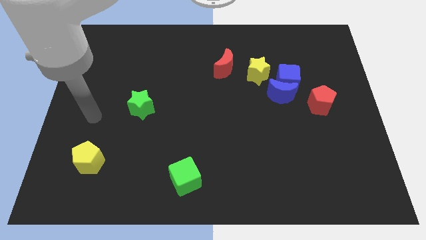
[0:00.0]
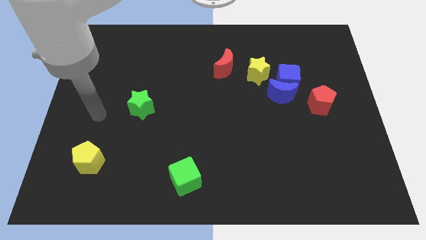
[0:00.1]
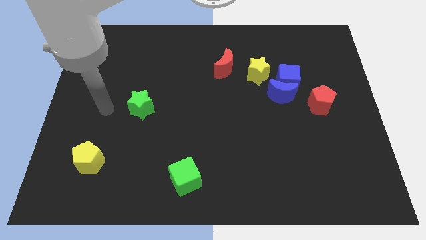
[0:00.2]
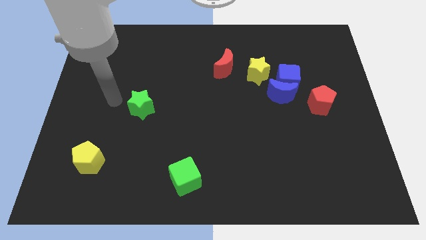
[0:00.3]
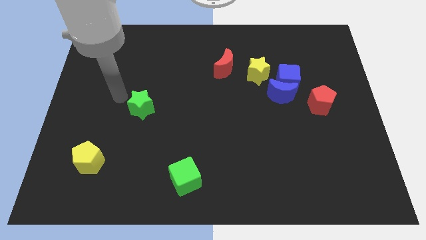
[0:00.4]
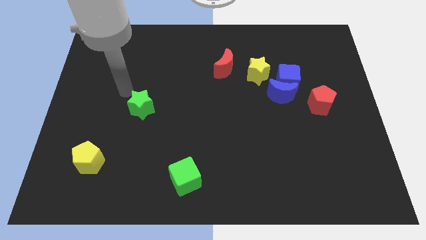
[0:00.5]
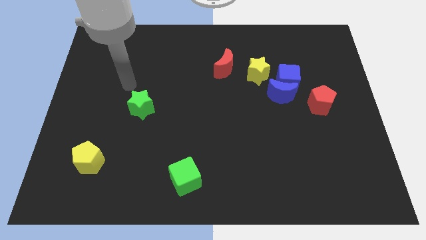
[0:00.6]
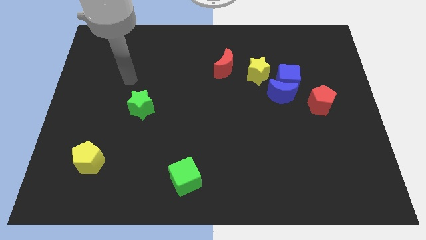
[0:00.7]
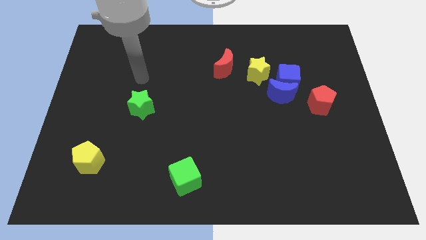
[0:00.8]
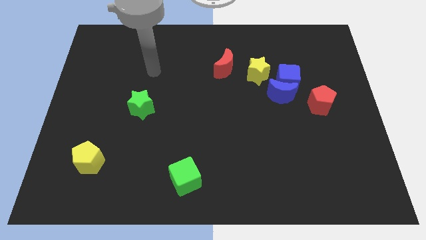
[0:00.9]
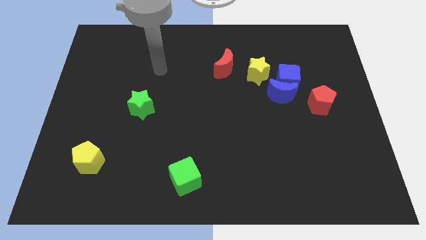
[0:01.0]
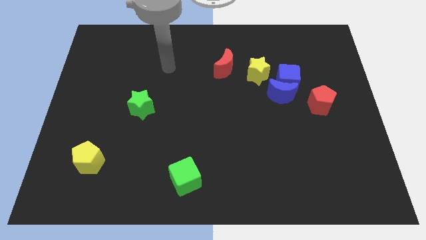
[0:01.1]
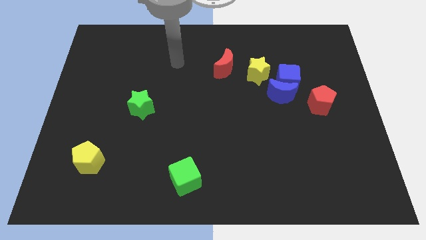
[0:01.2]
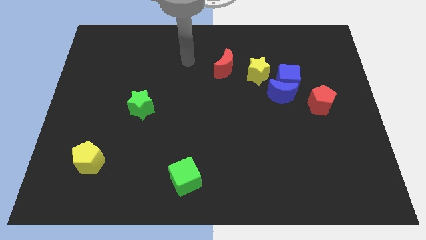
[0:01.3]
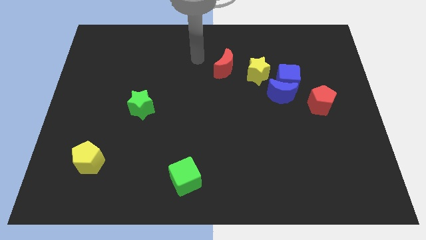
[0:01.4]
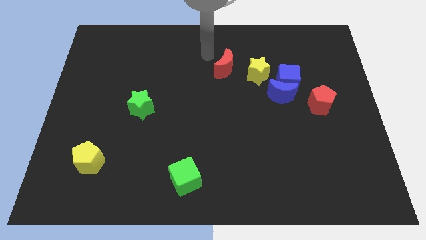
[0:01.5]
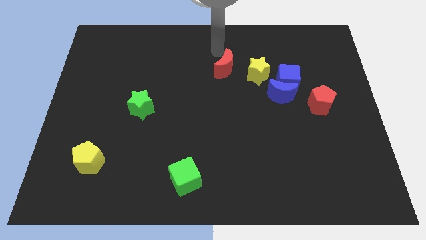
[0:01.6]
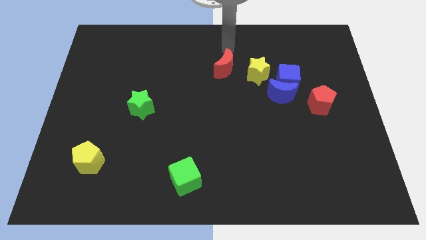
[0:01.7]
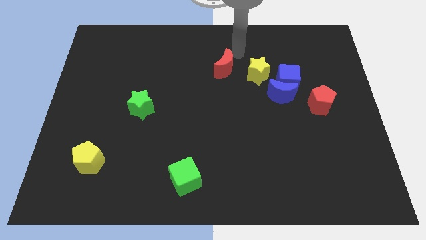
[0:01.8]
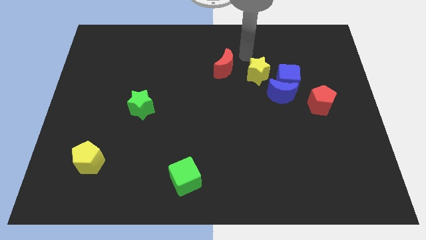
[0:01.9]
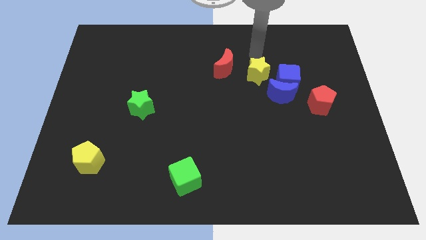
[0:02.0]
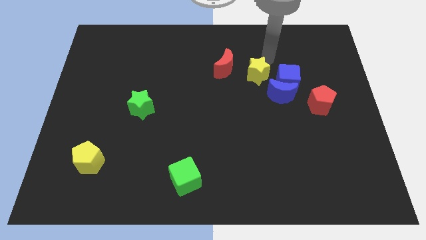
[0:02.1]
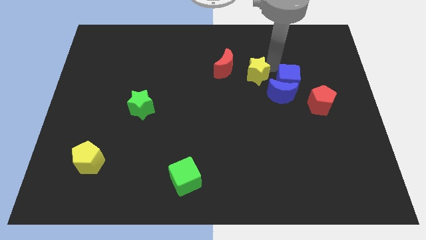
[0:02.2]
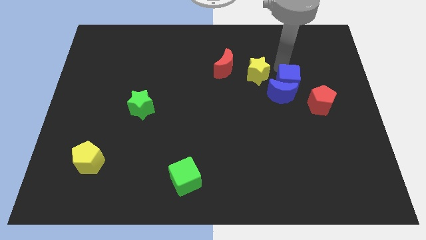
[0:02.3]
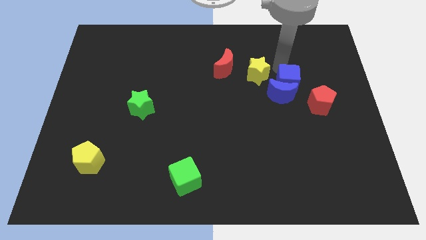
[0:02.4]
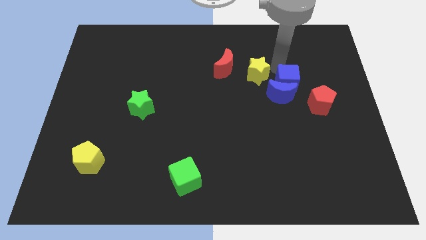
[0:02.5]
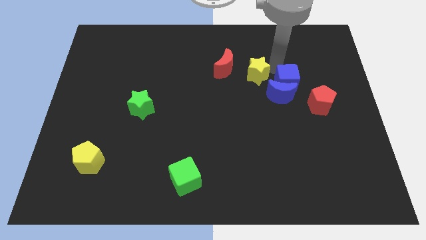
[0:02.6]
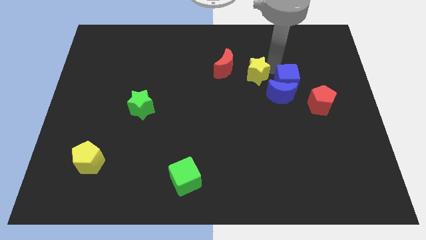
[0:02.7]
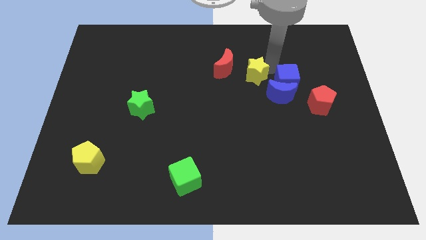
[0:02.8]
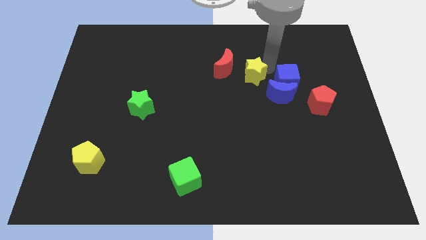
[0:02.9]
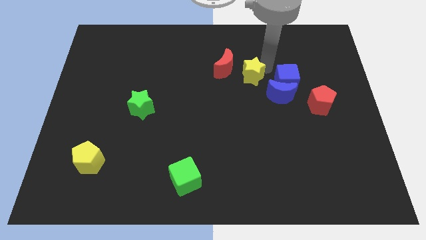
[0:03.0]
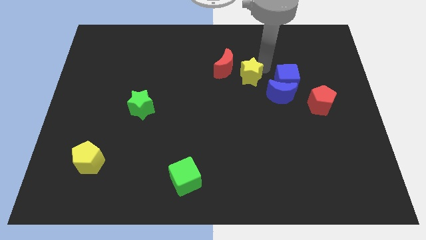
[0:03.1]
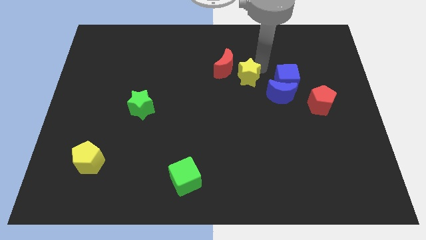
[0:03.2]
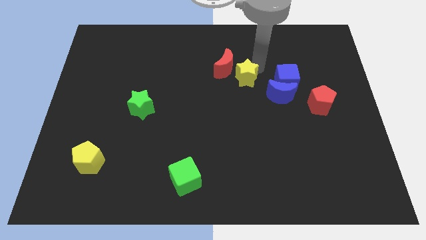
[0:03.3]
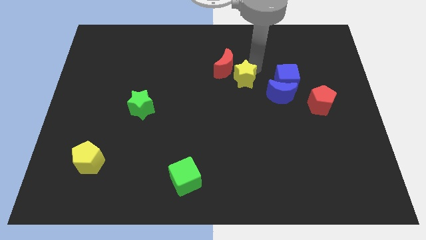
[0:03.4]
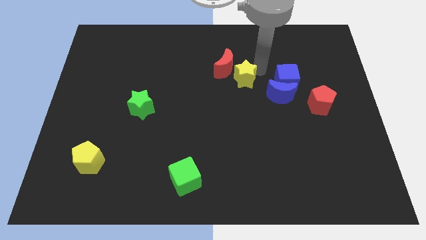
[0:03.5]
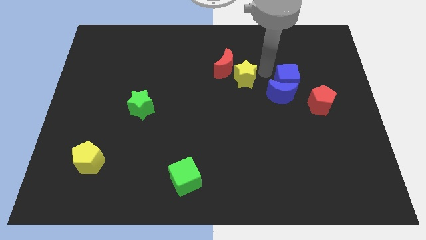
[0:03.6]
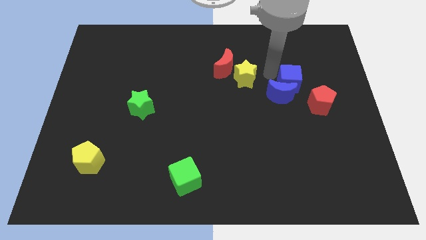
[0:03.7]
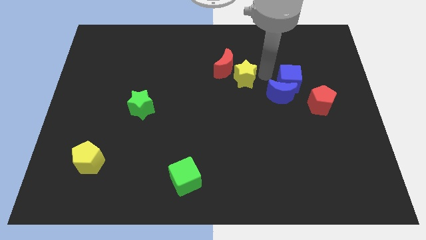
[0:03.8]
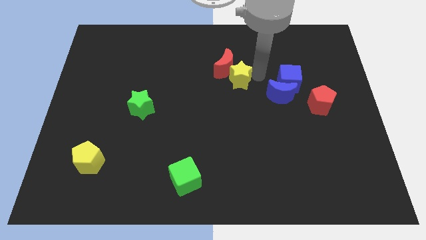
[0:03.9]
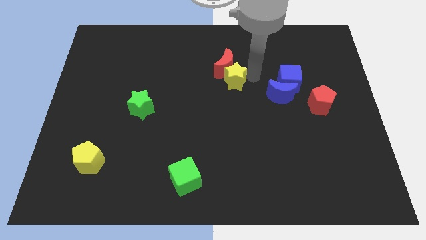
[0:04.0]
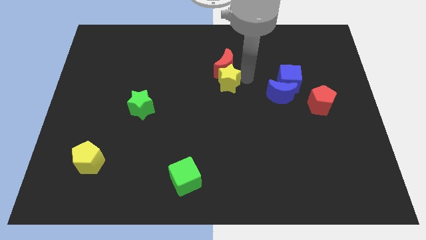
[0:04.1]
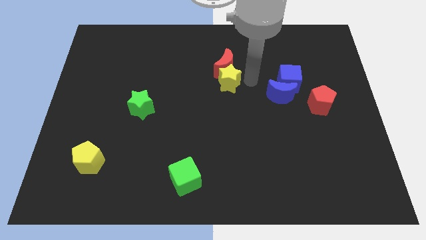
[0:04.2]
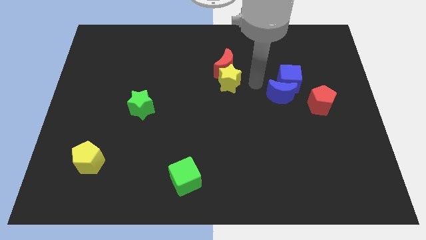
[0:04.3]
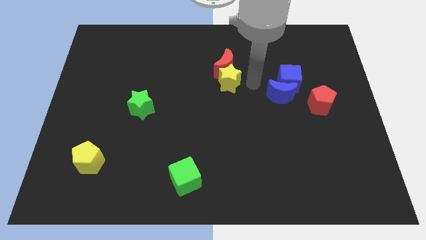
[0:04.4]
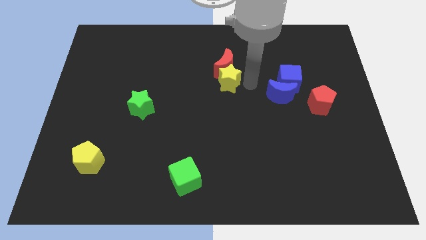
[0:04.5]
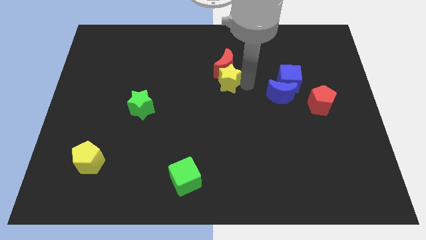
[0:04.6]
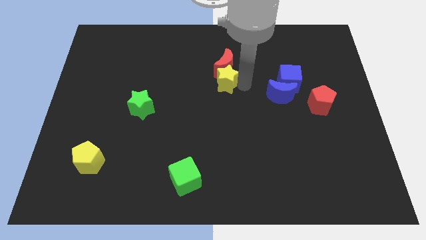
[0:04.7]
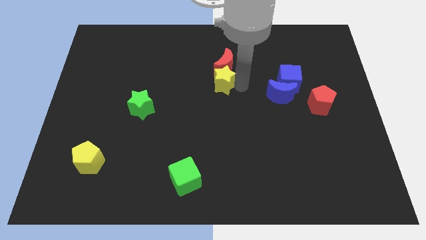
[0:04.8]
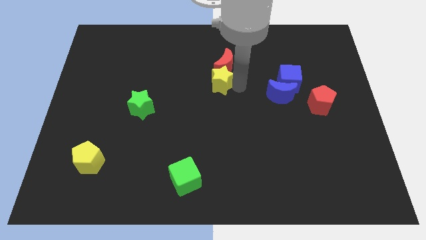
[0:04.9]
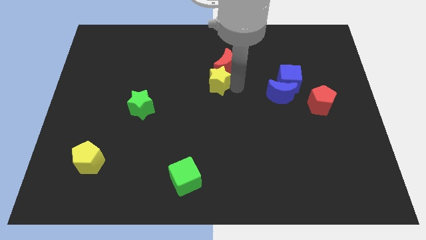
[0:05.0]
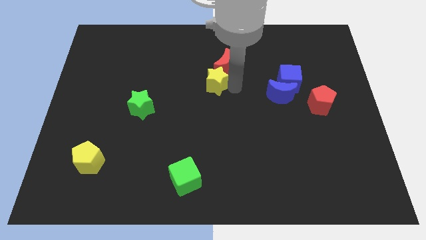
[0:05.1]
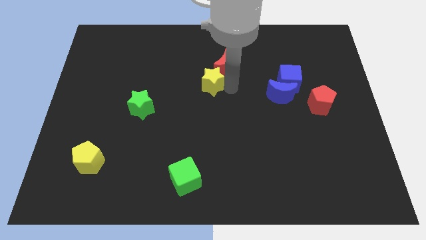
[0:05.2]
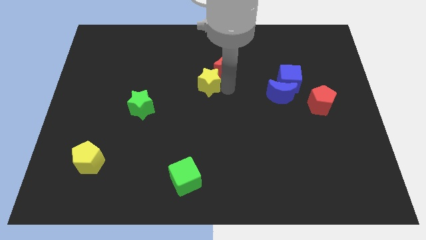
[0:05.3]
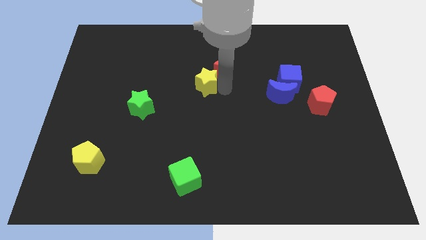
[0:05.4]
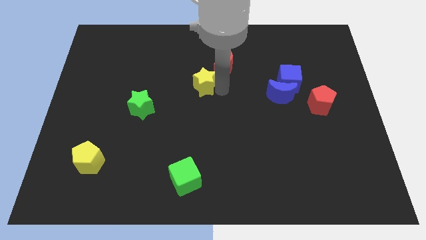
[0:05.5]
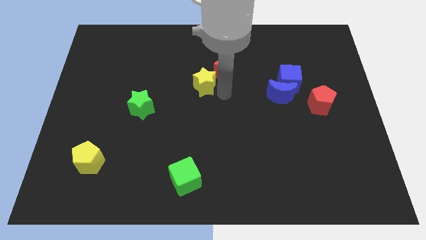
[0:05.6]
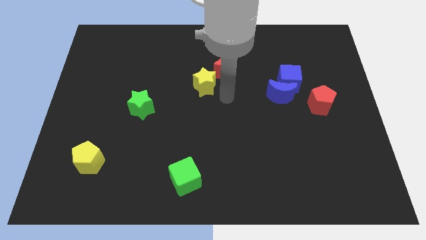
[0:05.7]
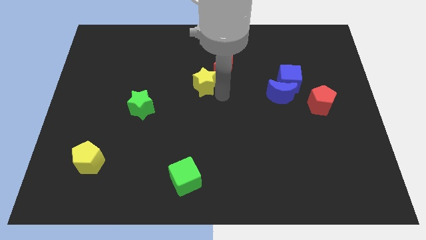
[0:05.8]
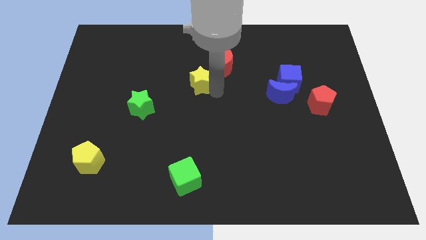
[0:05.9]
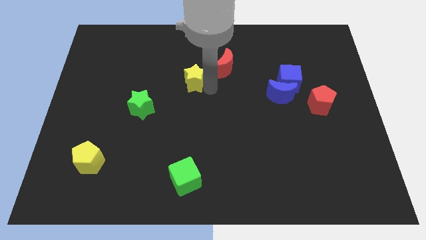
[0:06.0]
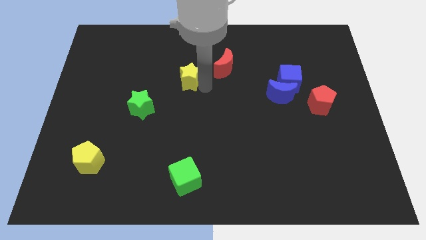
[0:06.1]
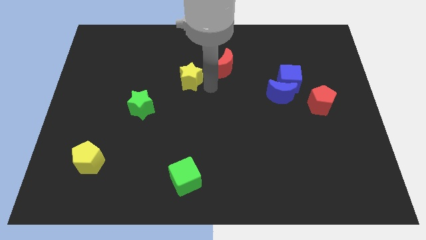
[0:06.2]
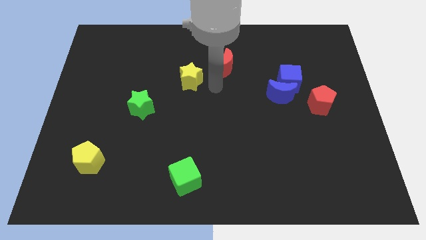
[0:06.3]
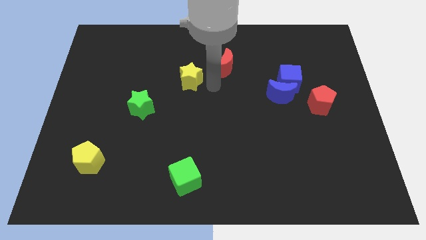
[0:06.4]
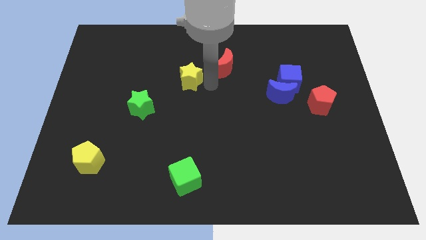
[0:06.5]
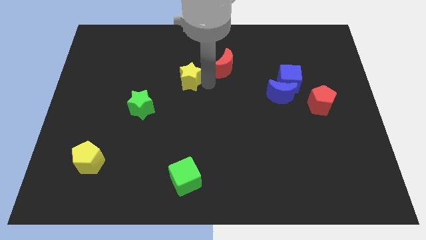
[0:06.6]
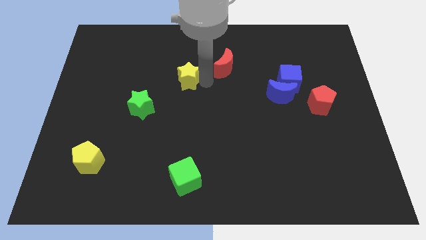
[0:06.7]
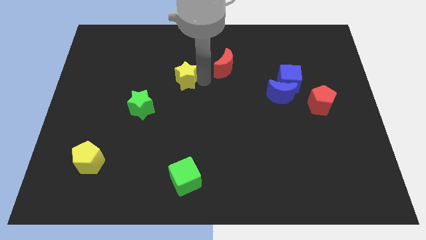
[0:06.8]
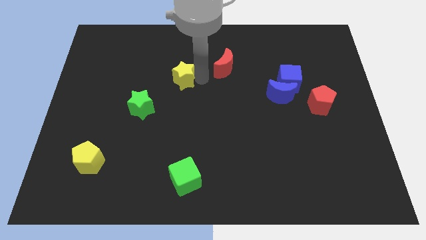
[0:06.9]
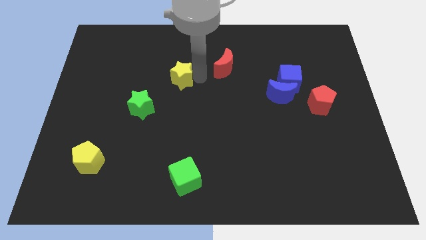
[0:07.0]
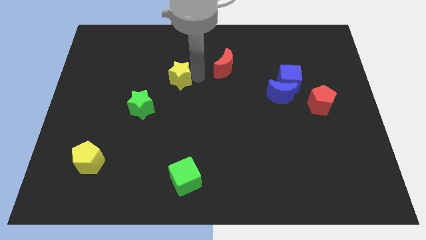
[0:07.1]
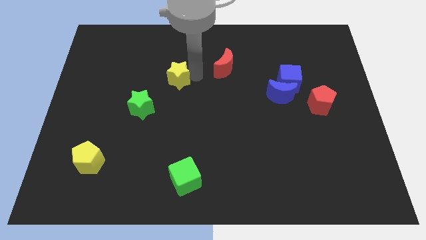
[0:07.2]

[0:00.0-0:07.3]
slide the yellow star left

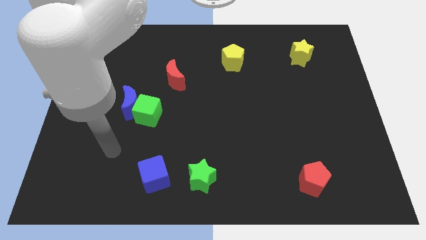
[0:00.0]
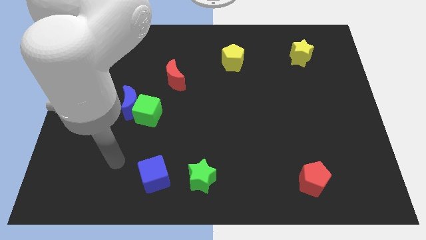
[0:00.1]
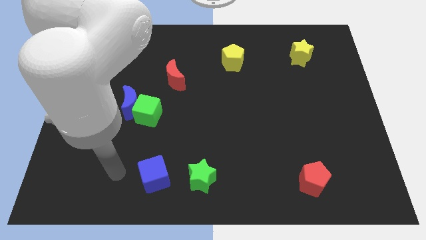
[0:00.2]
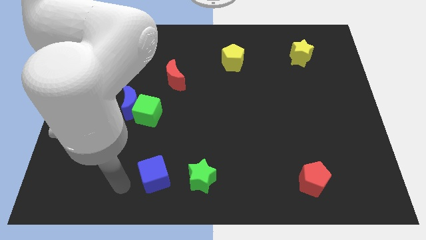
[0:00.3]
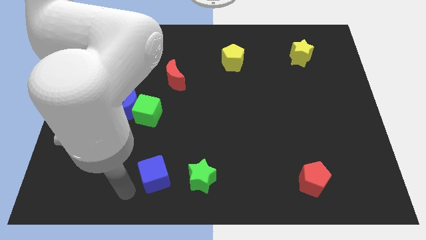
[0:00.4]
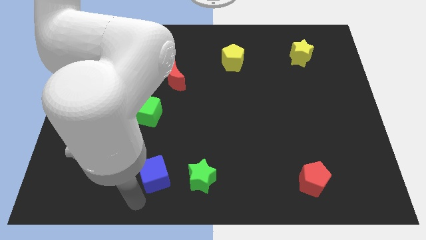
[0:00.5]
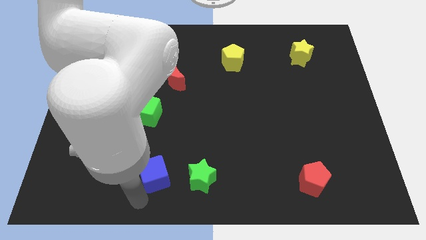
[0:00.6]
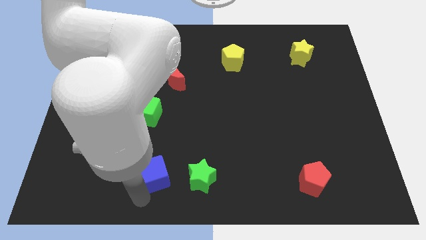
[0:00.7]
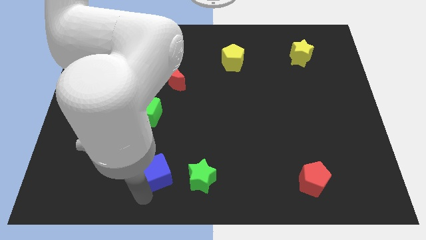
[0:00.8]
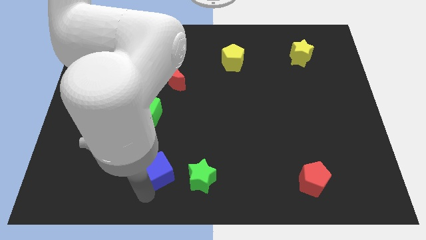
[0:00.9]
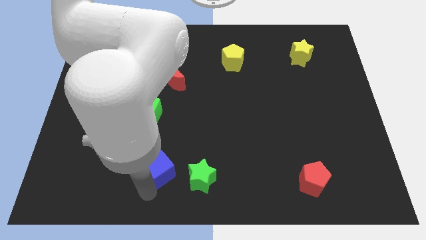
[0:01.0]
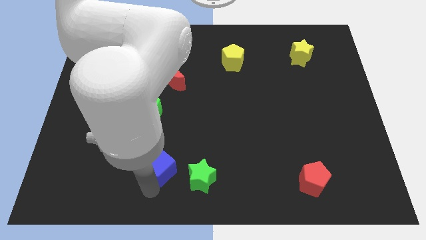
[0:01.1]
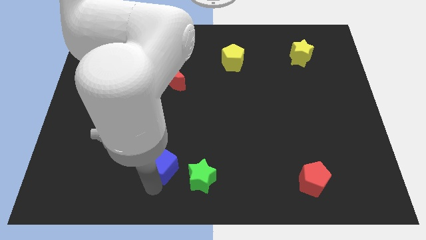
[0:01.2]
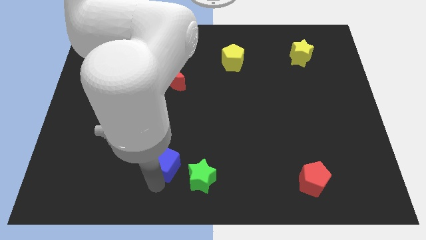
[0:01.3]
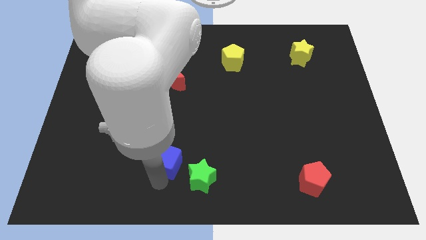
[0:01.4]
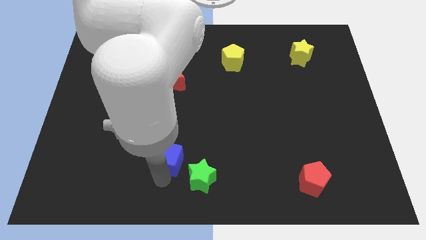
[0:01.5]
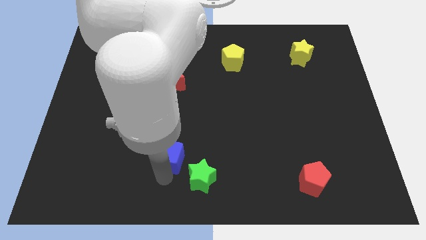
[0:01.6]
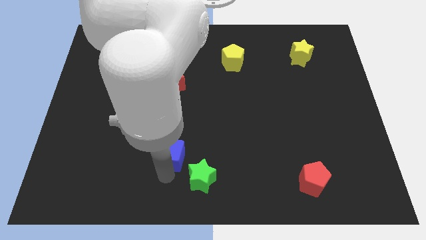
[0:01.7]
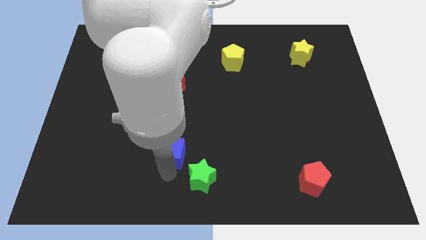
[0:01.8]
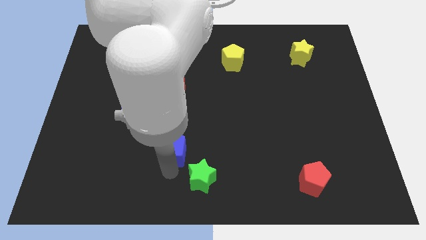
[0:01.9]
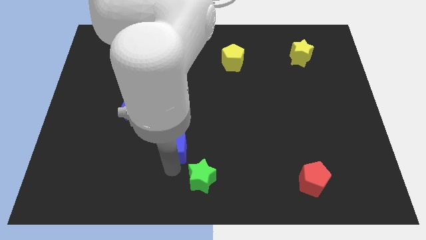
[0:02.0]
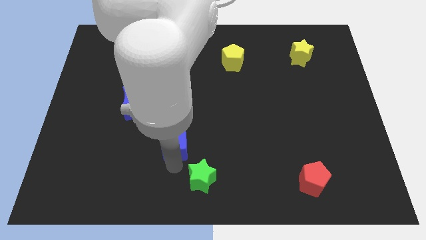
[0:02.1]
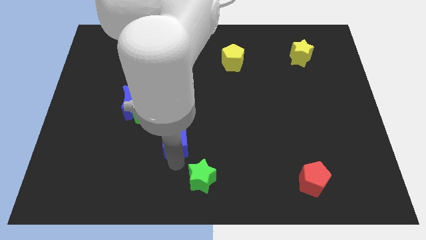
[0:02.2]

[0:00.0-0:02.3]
slightly slide the blue cube up
